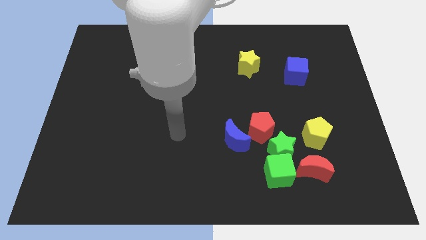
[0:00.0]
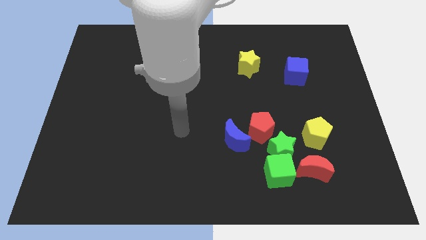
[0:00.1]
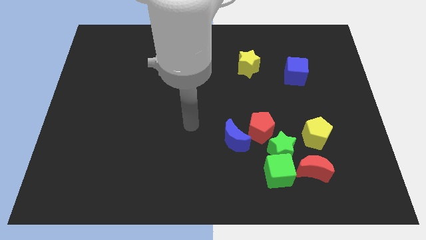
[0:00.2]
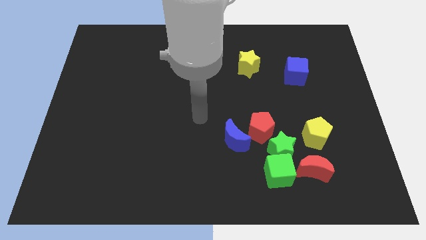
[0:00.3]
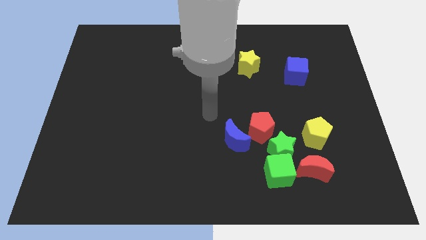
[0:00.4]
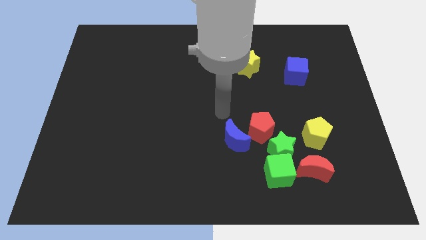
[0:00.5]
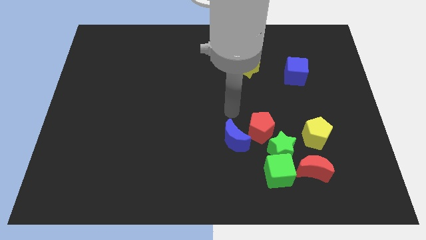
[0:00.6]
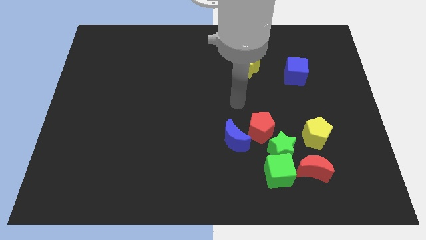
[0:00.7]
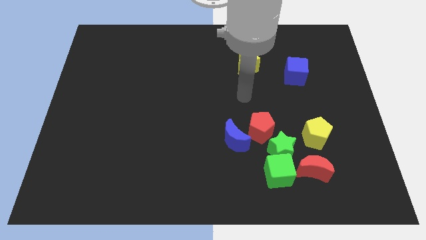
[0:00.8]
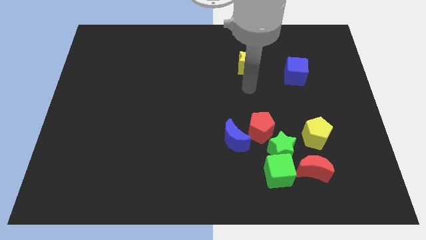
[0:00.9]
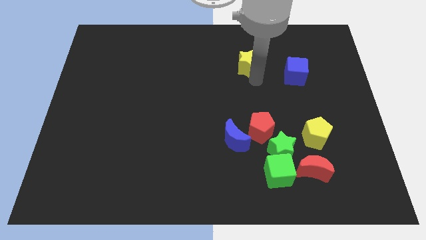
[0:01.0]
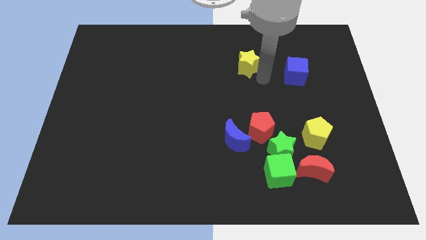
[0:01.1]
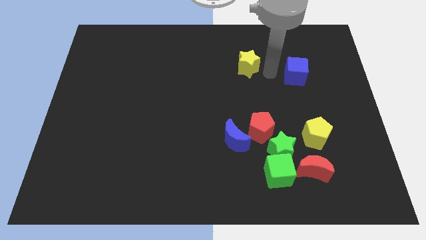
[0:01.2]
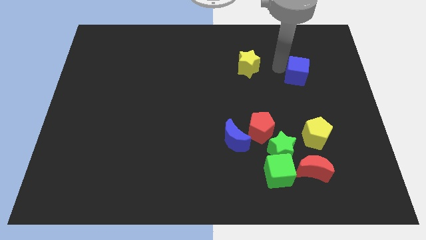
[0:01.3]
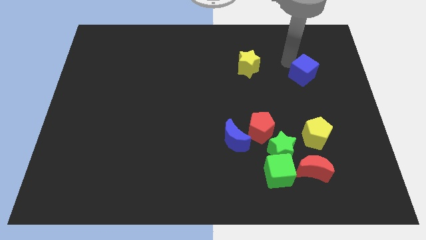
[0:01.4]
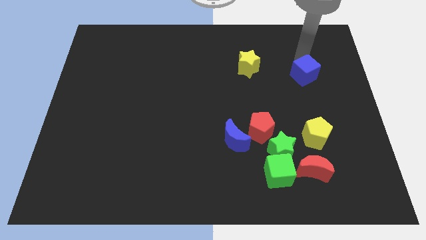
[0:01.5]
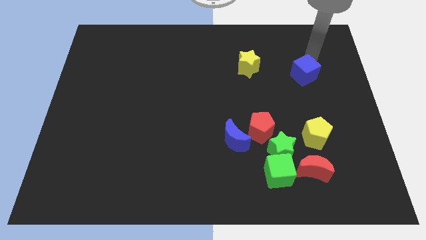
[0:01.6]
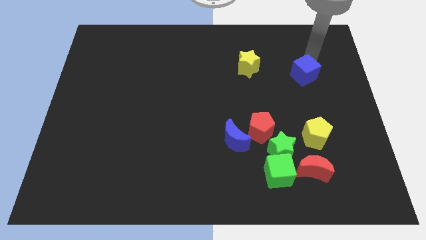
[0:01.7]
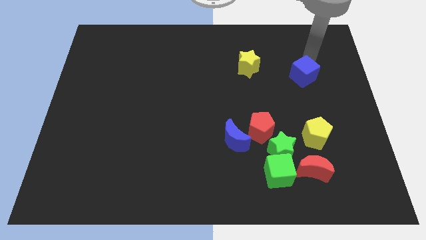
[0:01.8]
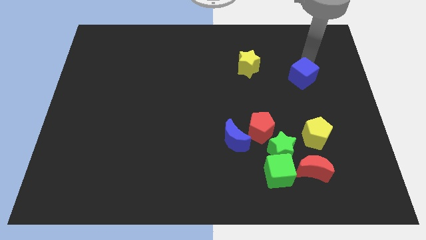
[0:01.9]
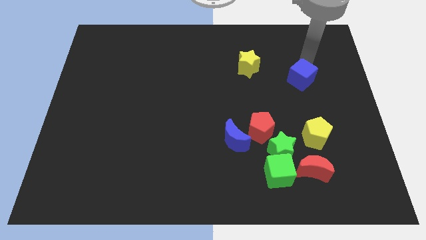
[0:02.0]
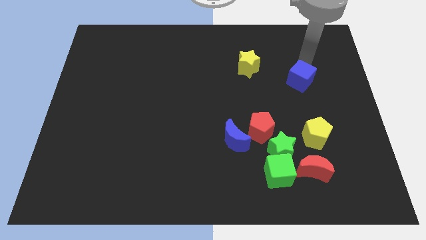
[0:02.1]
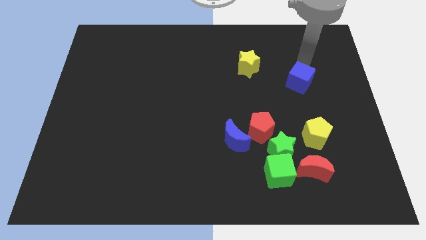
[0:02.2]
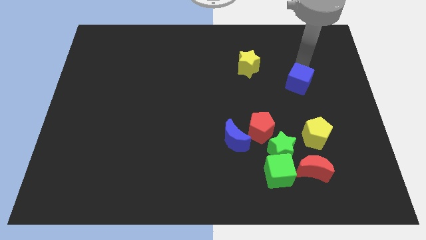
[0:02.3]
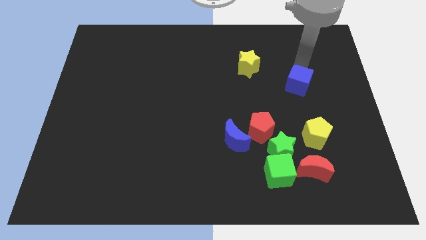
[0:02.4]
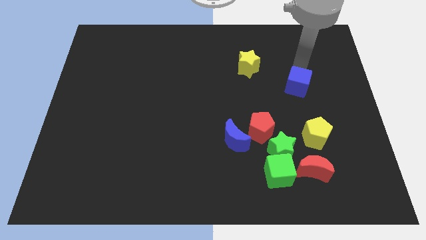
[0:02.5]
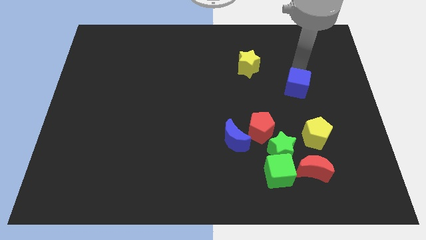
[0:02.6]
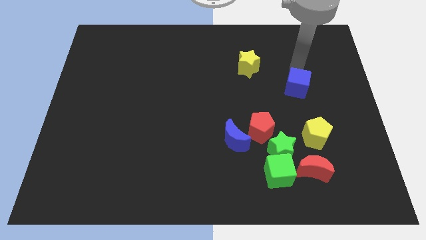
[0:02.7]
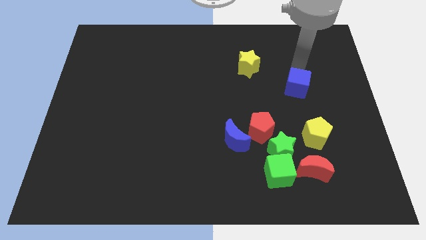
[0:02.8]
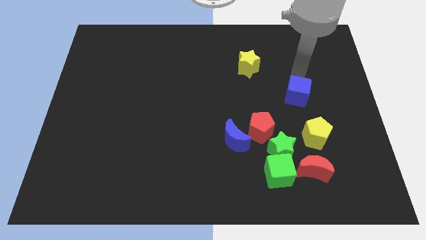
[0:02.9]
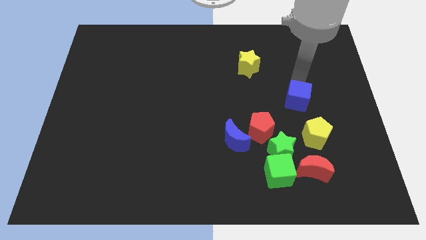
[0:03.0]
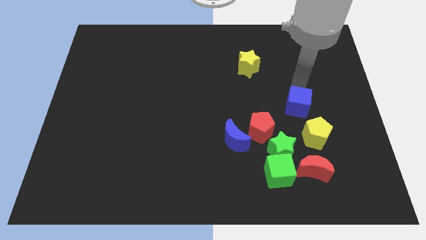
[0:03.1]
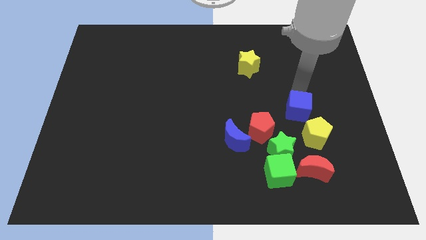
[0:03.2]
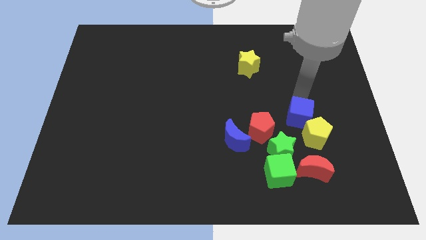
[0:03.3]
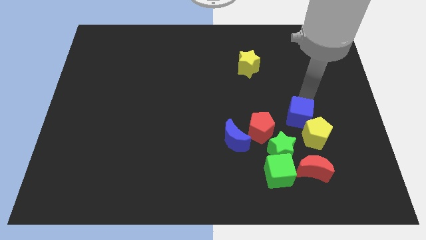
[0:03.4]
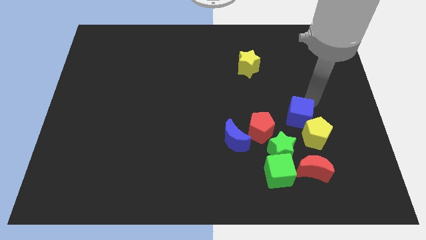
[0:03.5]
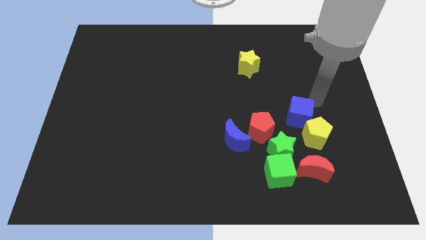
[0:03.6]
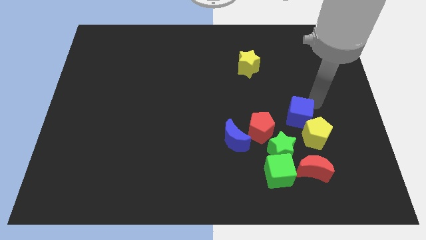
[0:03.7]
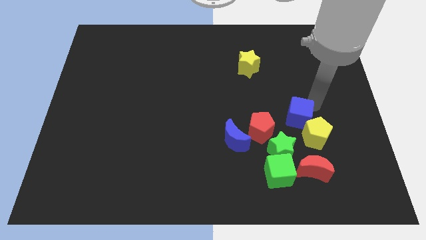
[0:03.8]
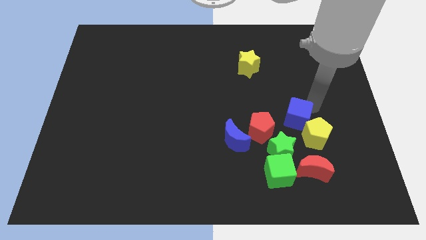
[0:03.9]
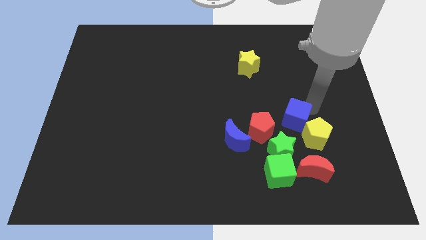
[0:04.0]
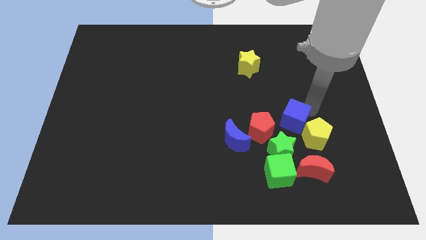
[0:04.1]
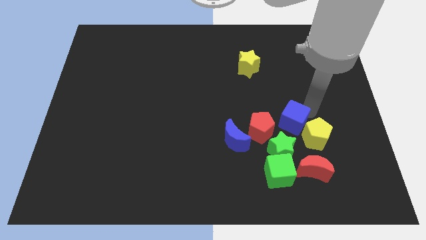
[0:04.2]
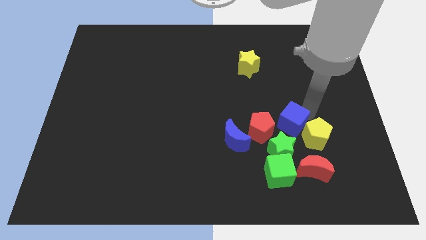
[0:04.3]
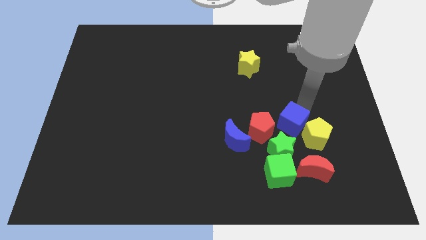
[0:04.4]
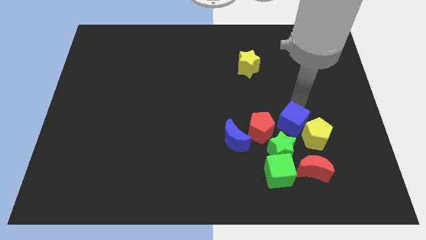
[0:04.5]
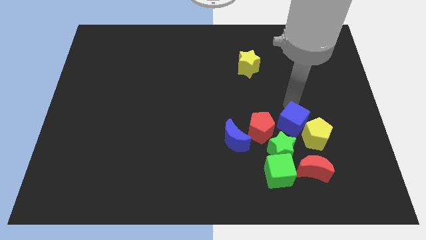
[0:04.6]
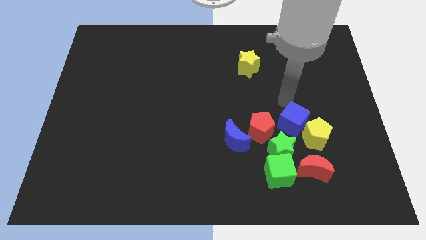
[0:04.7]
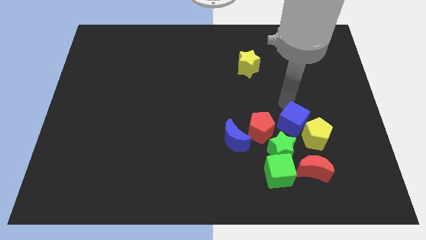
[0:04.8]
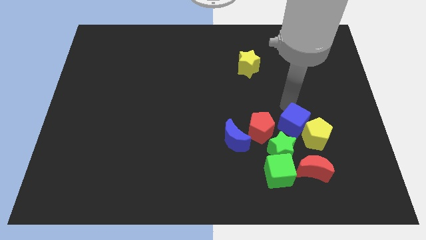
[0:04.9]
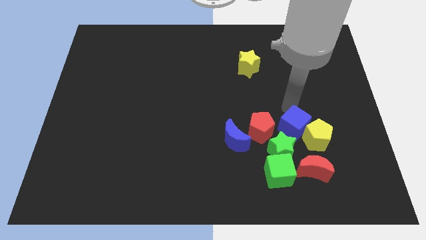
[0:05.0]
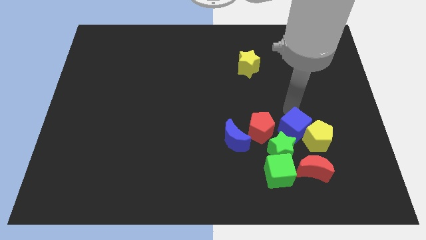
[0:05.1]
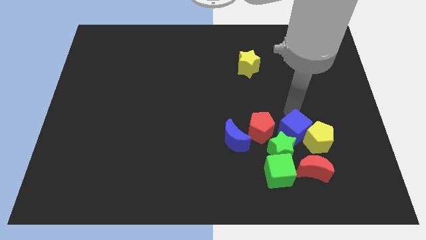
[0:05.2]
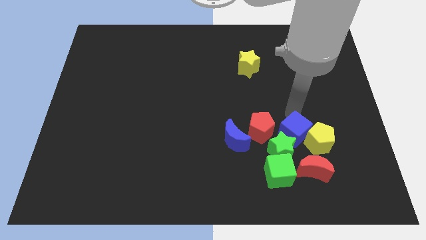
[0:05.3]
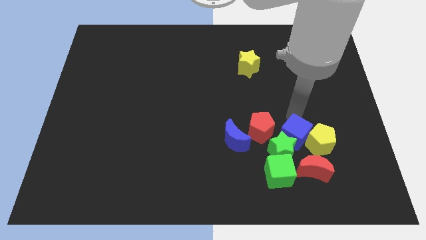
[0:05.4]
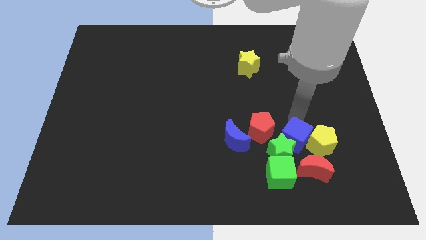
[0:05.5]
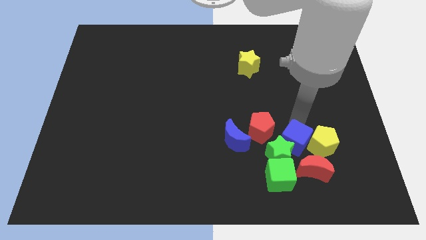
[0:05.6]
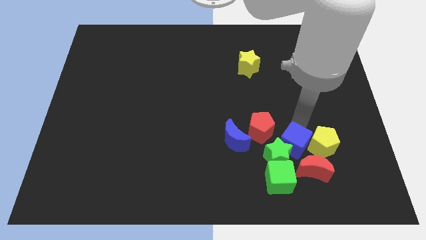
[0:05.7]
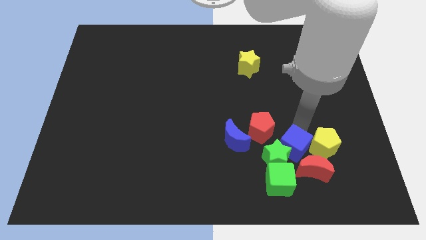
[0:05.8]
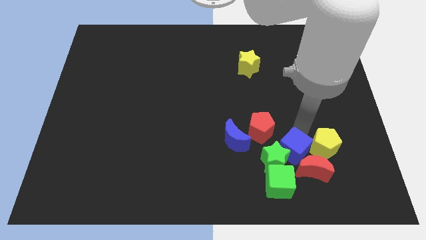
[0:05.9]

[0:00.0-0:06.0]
push the blue cube close to the red moon

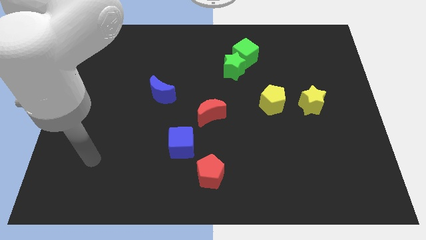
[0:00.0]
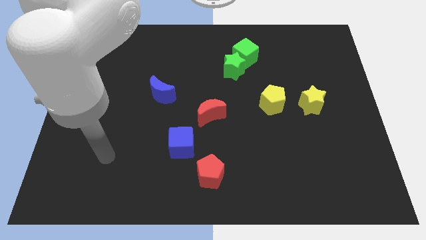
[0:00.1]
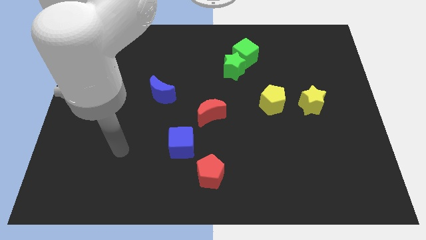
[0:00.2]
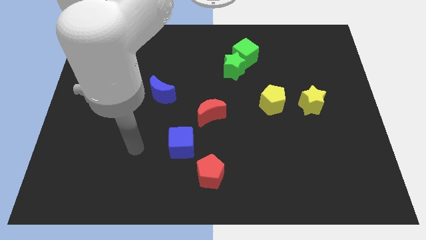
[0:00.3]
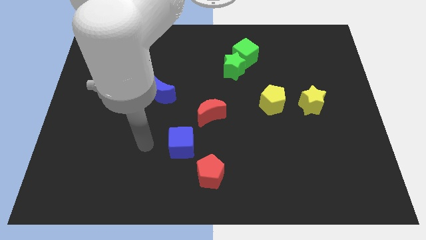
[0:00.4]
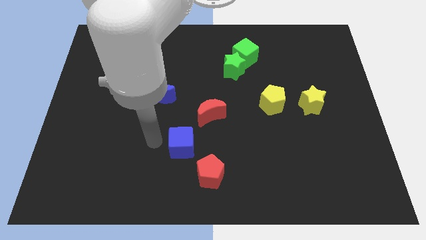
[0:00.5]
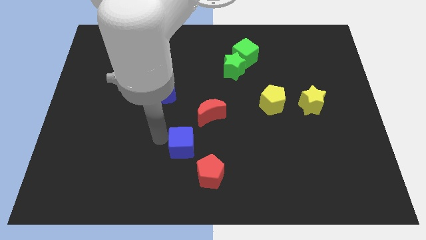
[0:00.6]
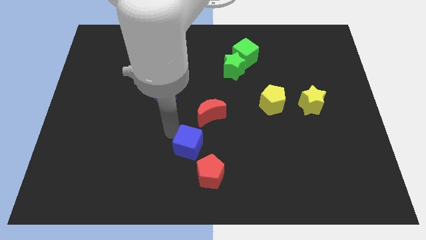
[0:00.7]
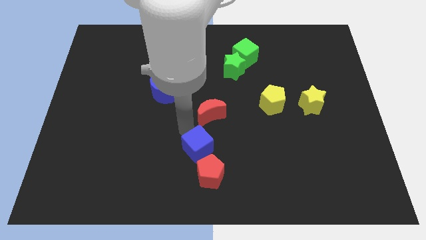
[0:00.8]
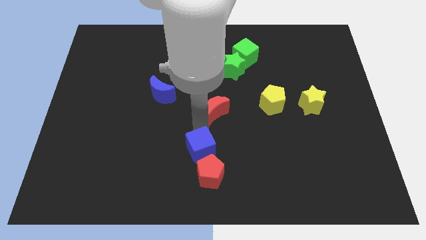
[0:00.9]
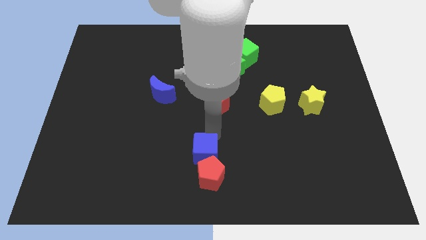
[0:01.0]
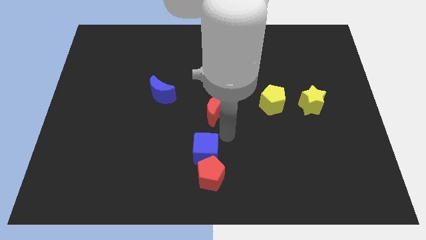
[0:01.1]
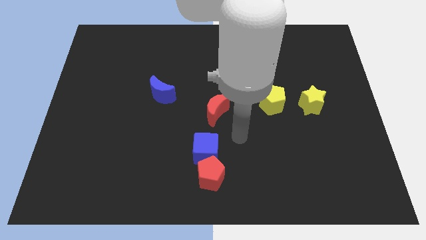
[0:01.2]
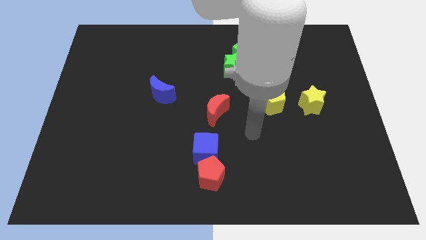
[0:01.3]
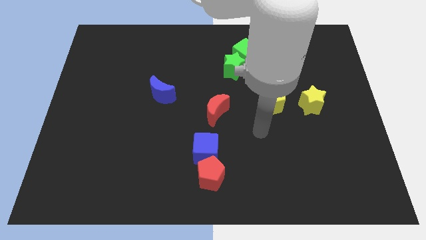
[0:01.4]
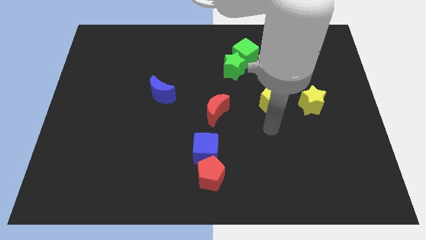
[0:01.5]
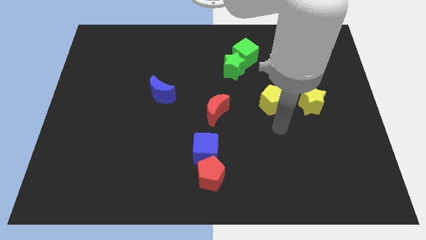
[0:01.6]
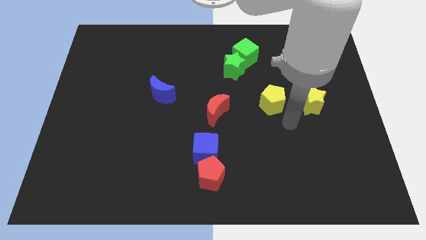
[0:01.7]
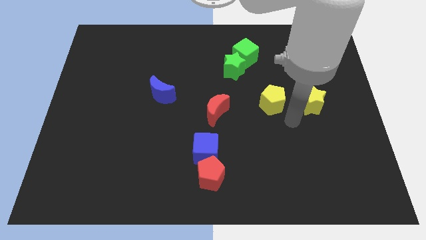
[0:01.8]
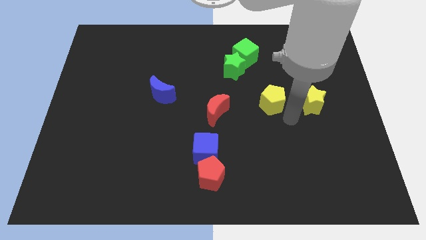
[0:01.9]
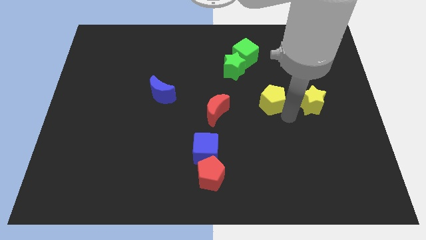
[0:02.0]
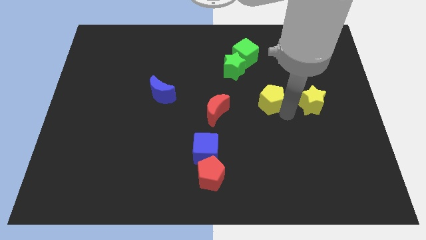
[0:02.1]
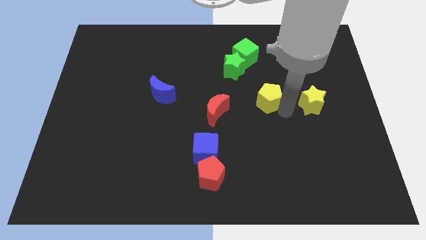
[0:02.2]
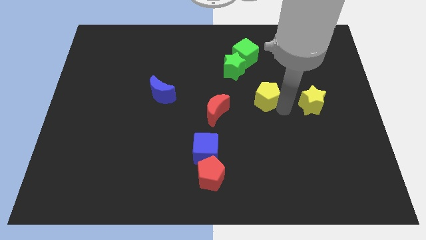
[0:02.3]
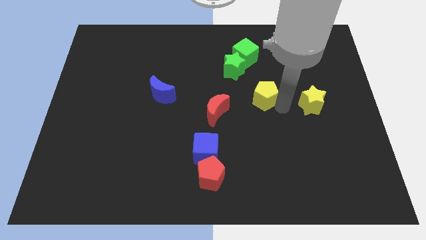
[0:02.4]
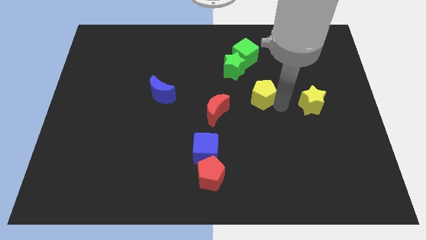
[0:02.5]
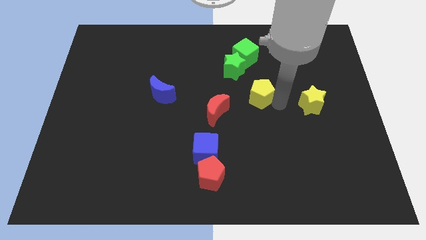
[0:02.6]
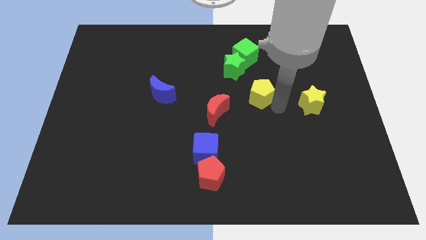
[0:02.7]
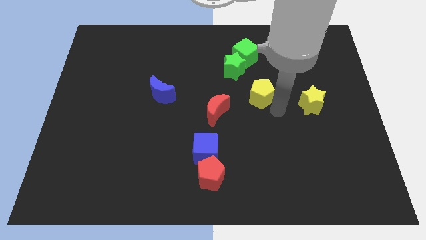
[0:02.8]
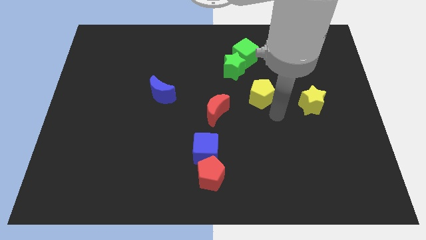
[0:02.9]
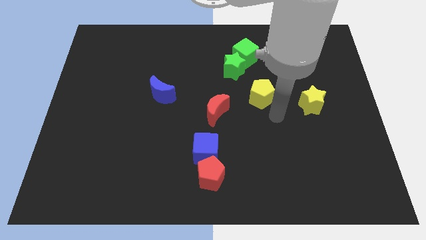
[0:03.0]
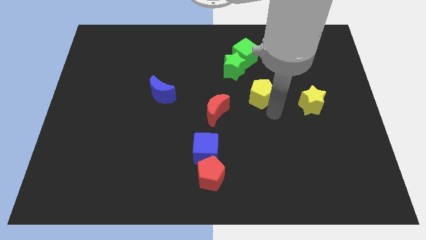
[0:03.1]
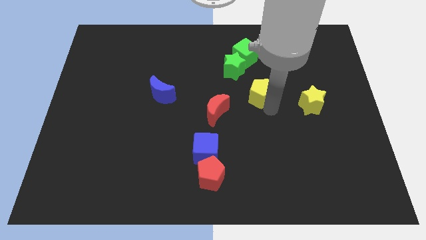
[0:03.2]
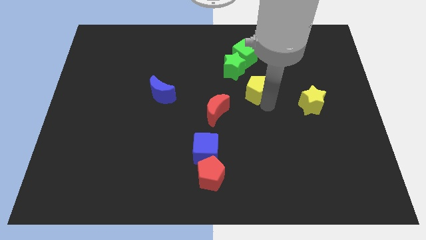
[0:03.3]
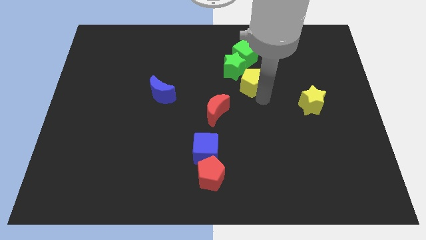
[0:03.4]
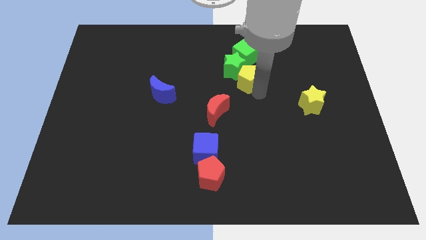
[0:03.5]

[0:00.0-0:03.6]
move the yellow pentagon to the green star
